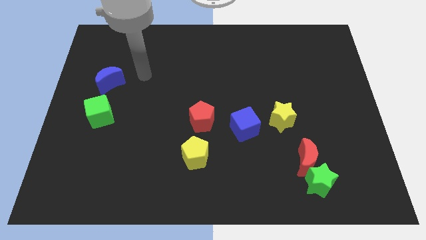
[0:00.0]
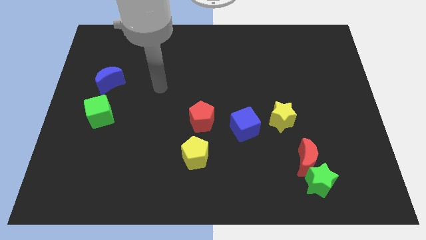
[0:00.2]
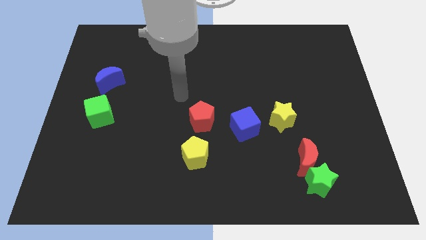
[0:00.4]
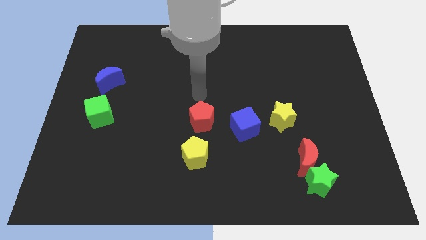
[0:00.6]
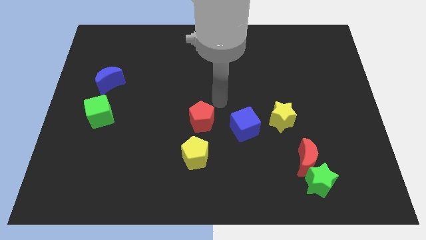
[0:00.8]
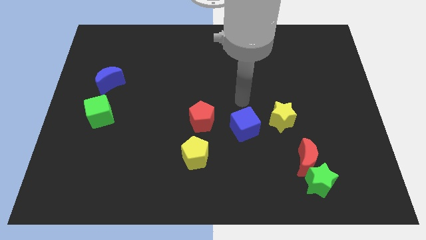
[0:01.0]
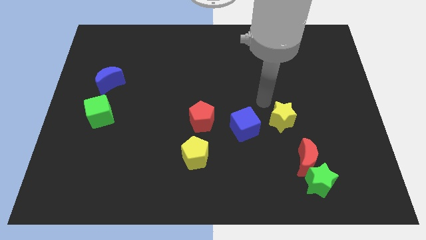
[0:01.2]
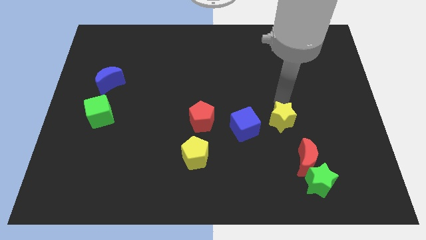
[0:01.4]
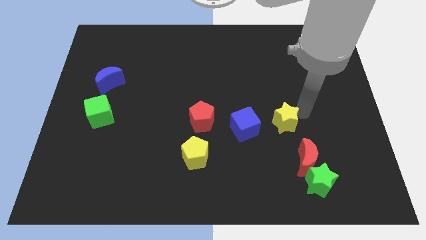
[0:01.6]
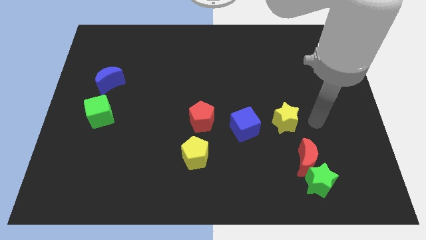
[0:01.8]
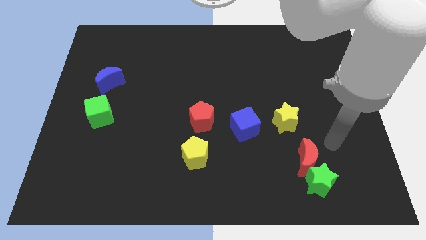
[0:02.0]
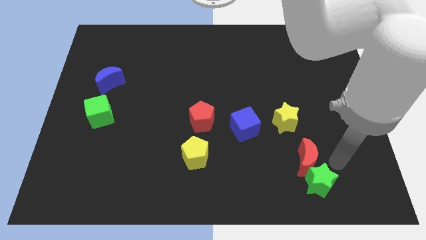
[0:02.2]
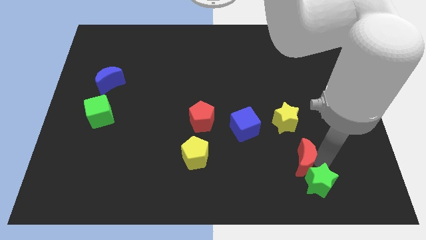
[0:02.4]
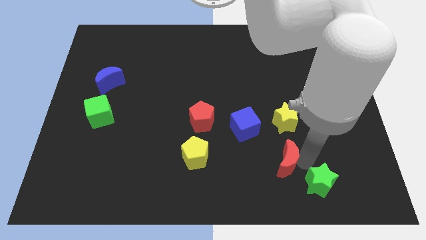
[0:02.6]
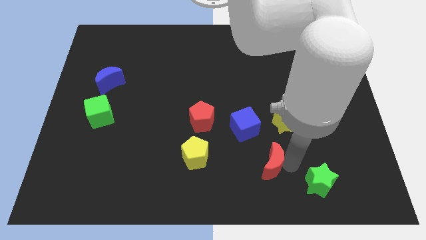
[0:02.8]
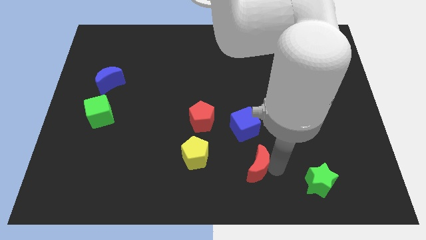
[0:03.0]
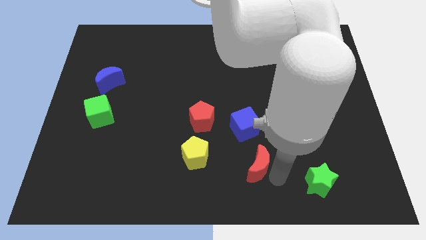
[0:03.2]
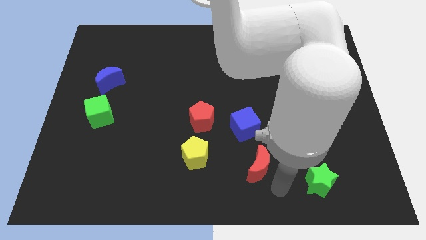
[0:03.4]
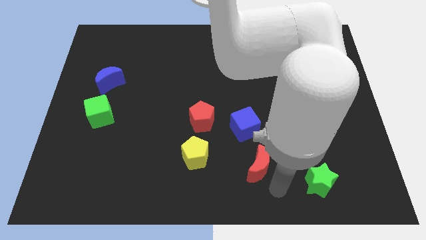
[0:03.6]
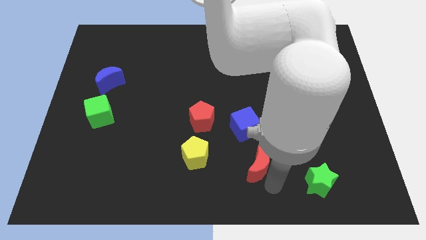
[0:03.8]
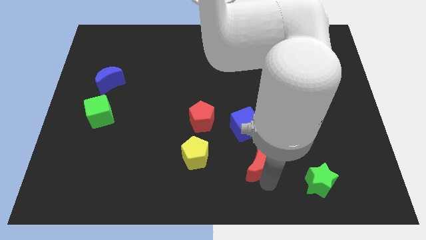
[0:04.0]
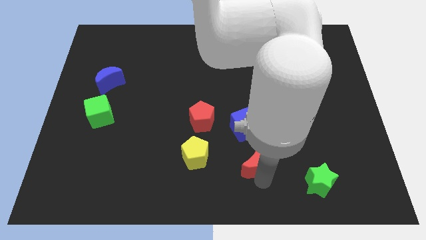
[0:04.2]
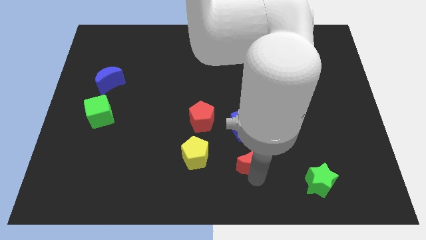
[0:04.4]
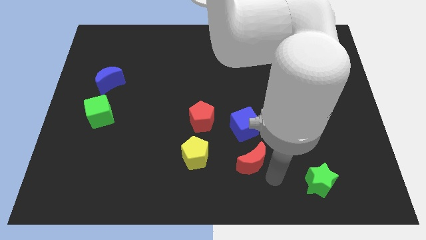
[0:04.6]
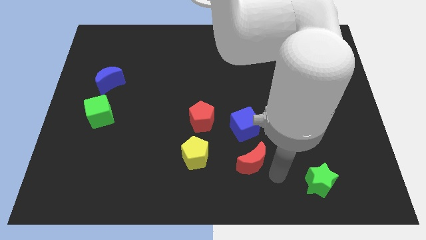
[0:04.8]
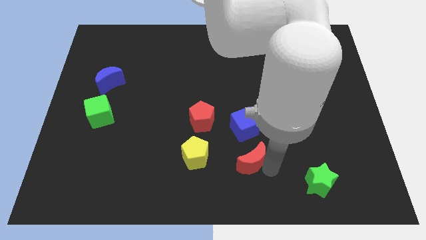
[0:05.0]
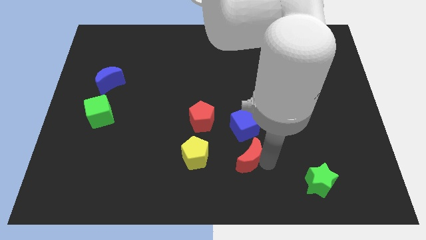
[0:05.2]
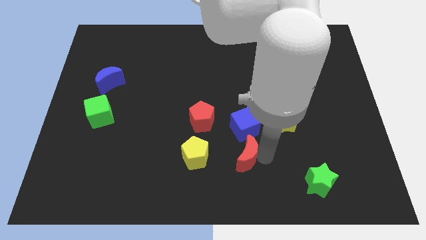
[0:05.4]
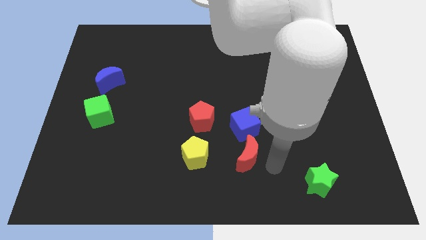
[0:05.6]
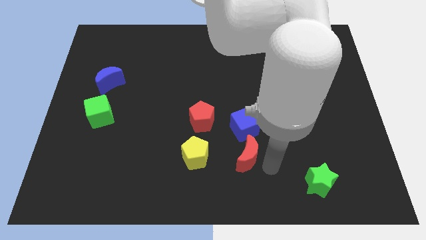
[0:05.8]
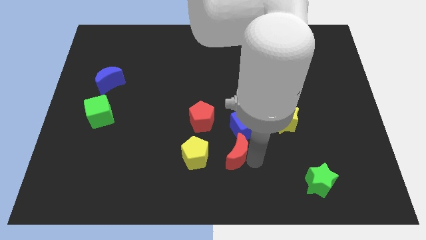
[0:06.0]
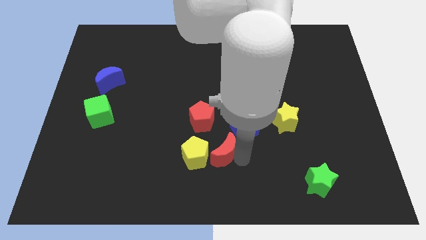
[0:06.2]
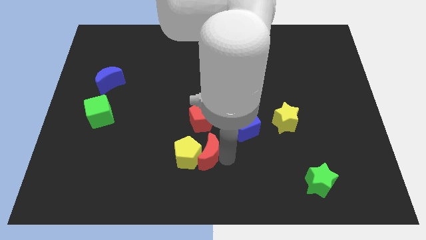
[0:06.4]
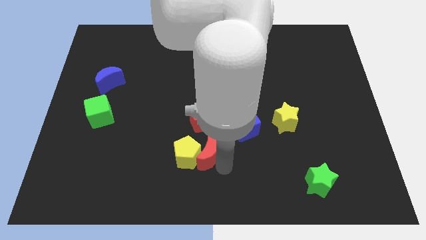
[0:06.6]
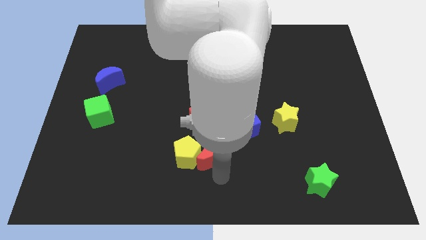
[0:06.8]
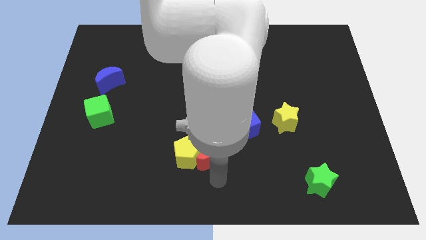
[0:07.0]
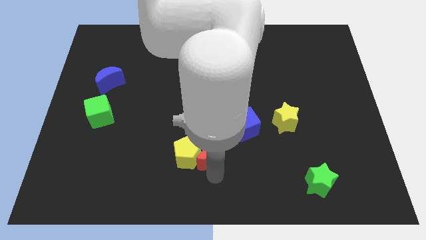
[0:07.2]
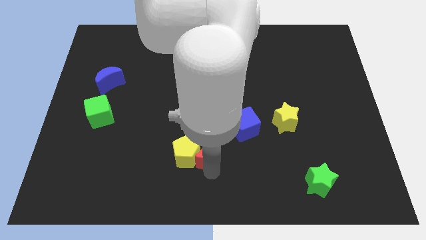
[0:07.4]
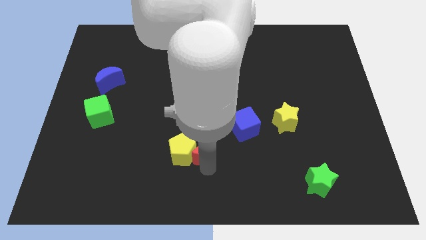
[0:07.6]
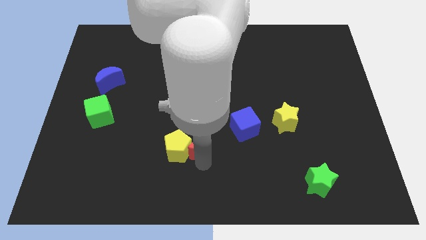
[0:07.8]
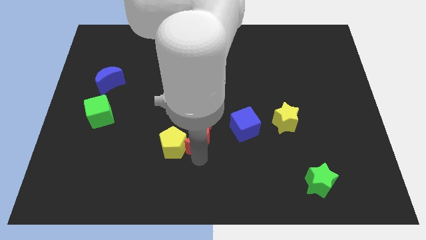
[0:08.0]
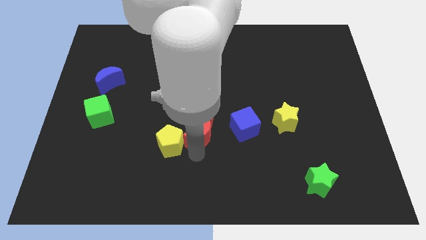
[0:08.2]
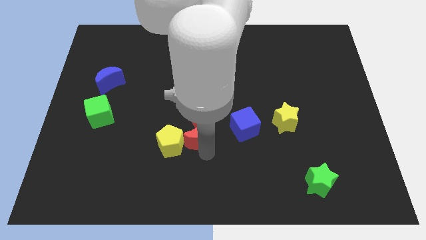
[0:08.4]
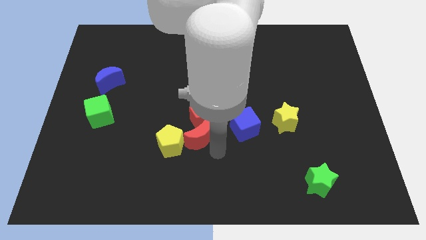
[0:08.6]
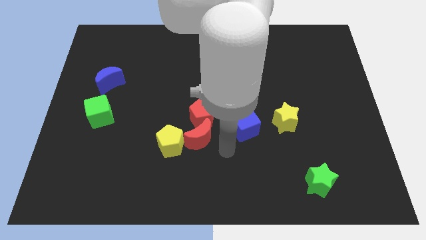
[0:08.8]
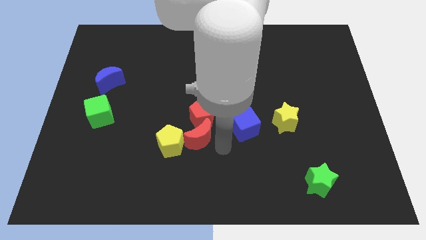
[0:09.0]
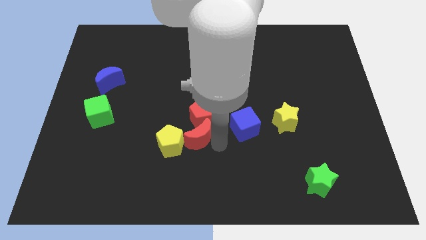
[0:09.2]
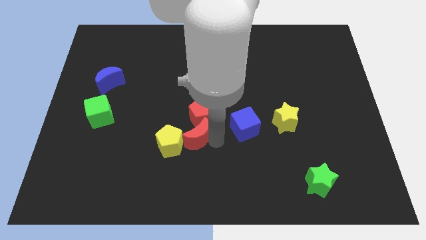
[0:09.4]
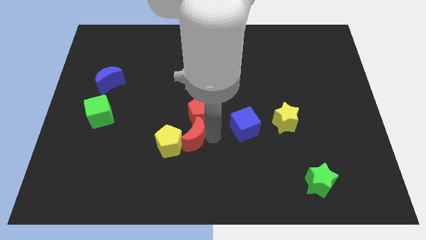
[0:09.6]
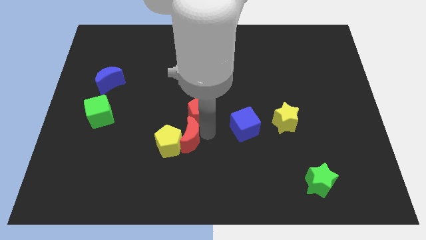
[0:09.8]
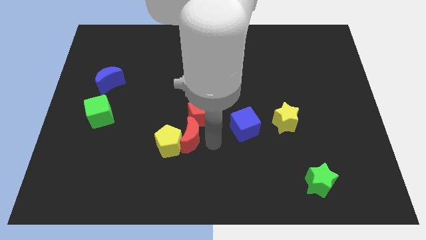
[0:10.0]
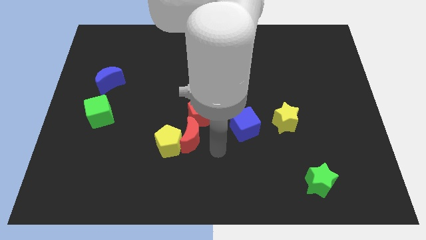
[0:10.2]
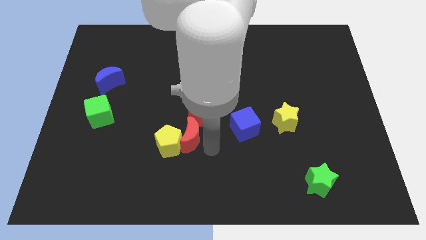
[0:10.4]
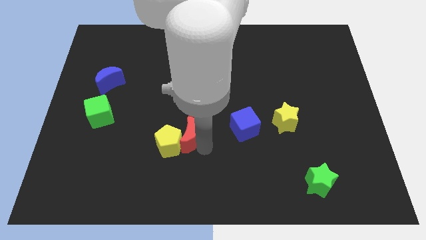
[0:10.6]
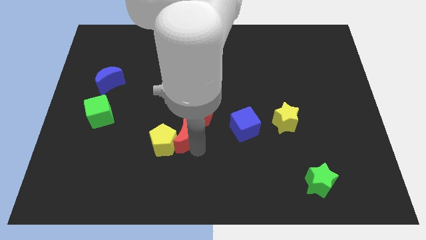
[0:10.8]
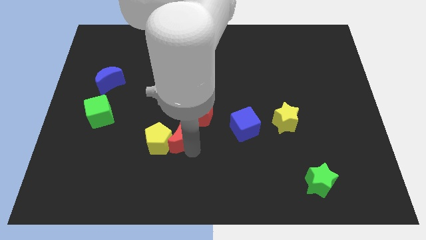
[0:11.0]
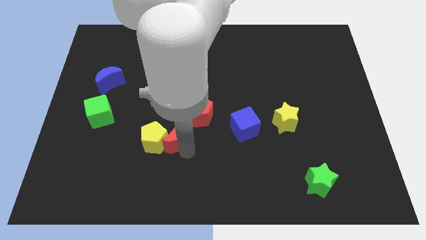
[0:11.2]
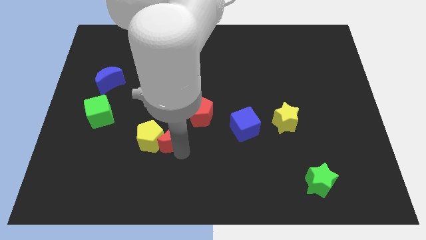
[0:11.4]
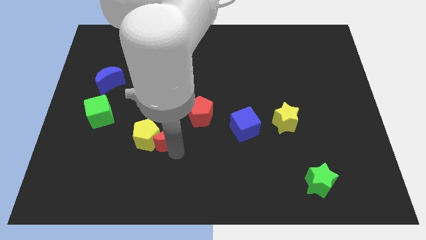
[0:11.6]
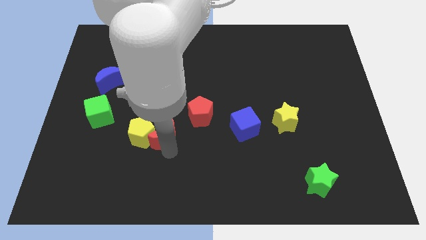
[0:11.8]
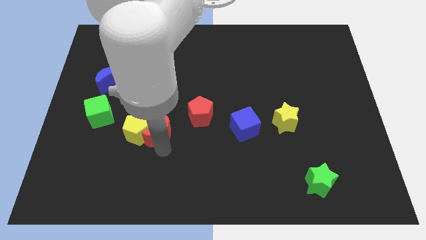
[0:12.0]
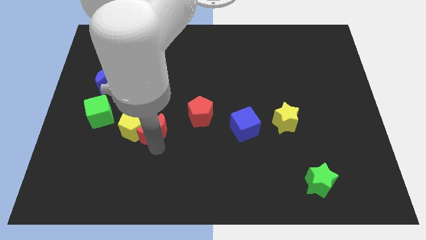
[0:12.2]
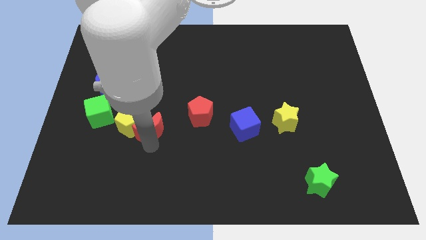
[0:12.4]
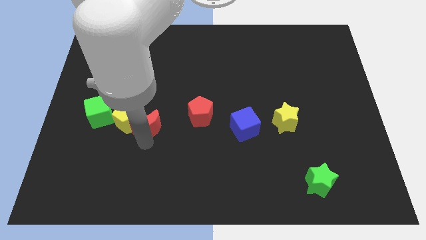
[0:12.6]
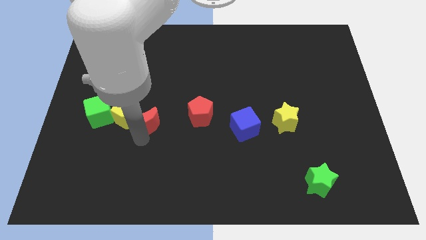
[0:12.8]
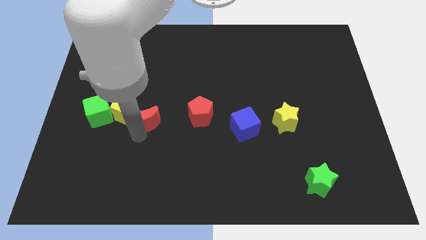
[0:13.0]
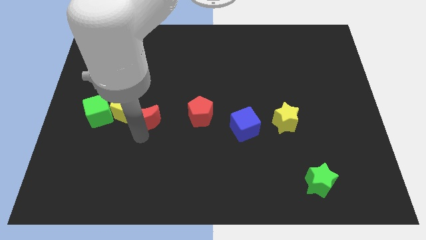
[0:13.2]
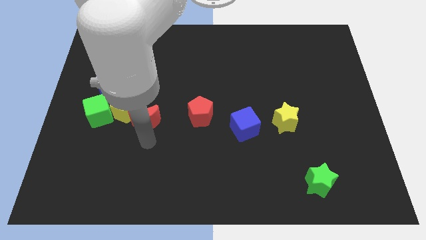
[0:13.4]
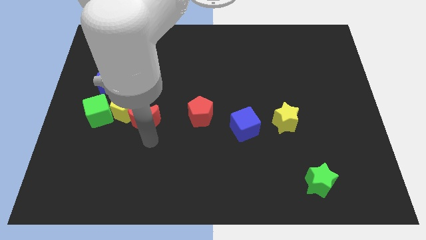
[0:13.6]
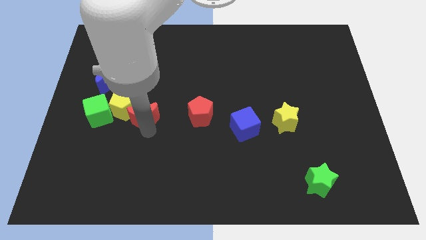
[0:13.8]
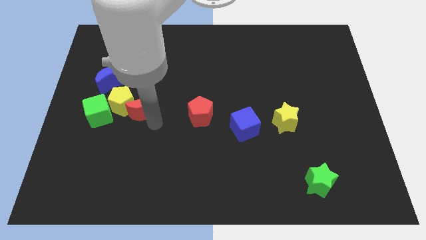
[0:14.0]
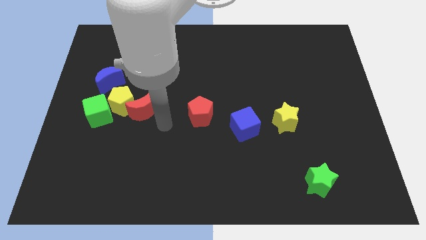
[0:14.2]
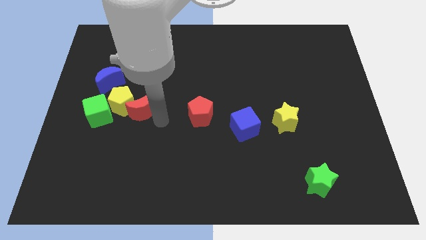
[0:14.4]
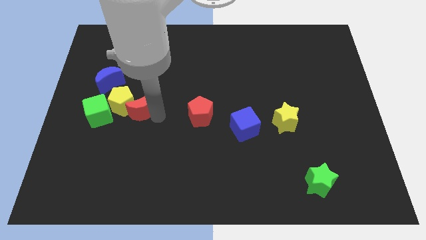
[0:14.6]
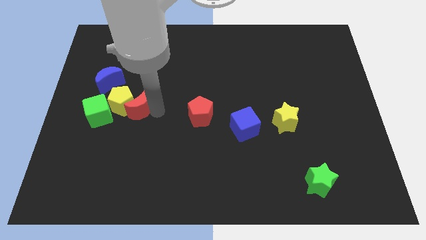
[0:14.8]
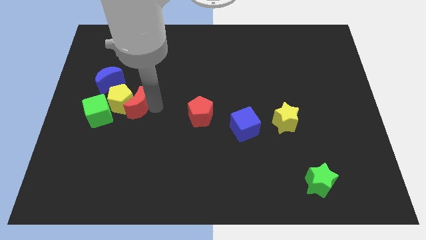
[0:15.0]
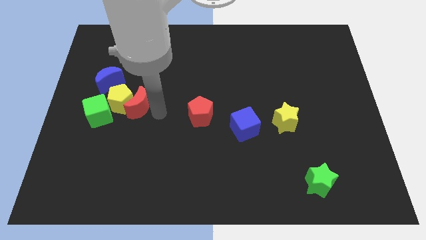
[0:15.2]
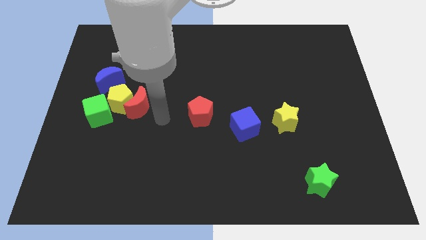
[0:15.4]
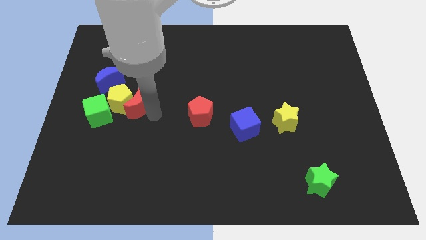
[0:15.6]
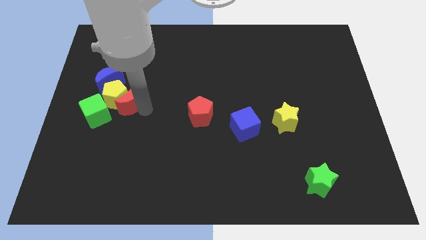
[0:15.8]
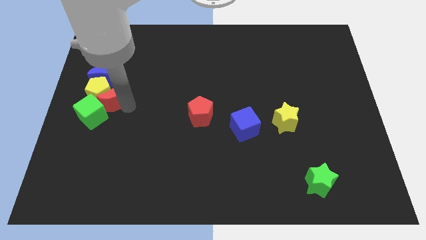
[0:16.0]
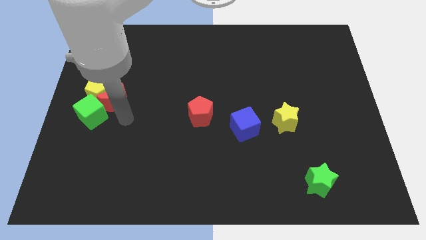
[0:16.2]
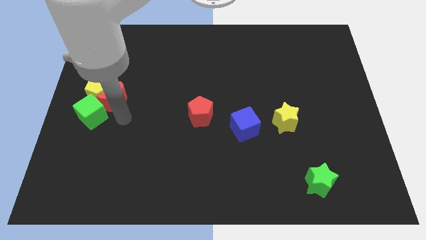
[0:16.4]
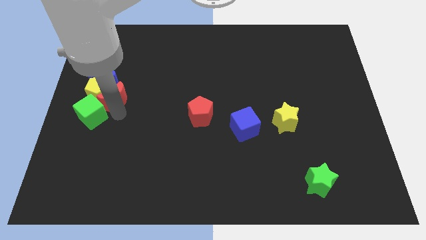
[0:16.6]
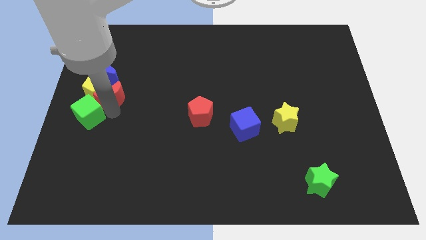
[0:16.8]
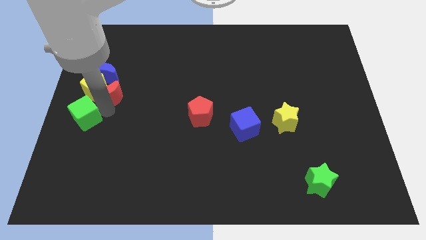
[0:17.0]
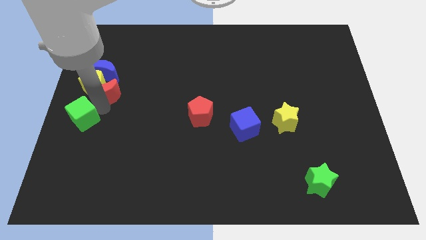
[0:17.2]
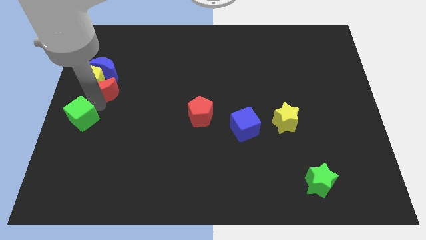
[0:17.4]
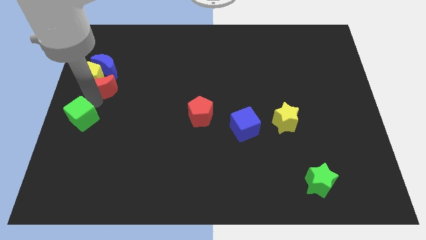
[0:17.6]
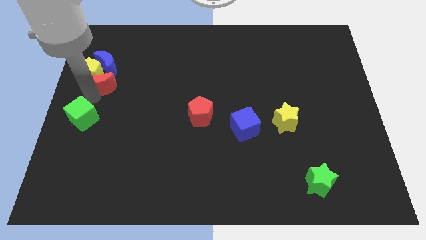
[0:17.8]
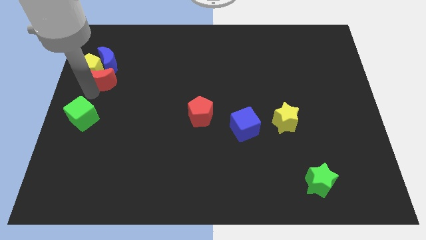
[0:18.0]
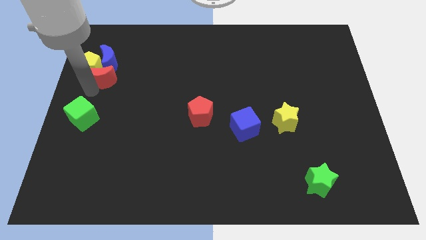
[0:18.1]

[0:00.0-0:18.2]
push the red moon to the blue moon
